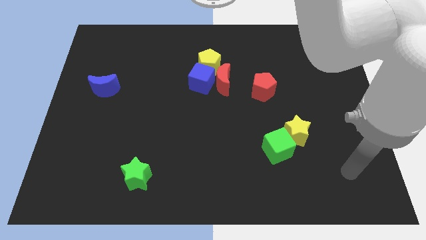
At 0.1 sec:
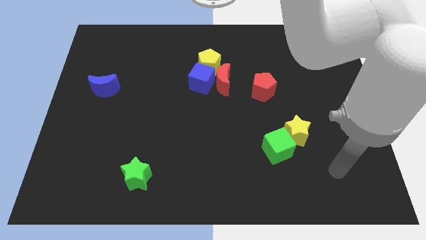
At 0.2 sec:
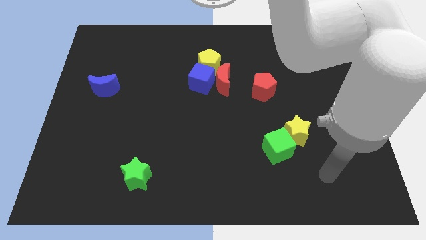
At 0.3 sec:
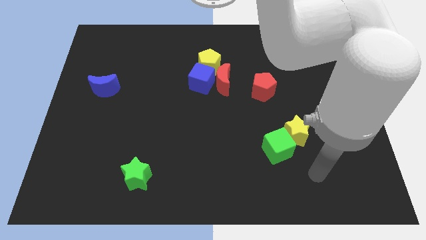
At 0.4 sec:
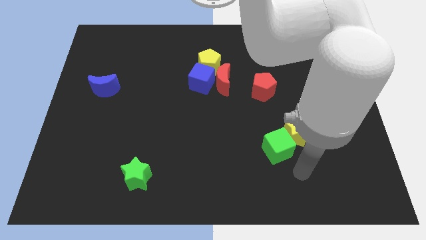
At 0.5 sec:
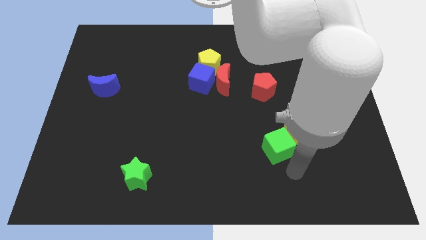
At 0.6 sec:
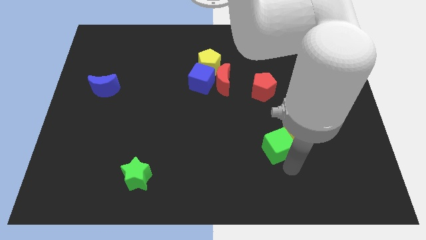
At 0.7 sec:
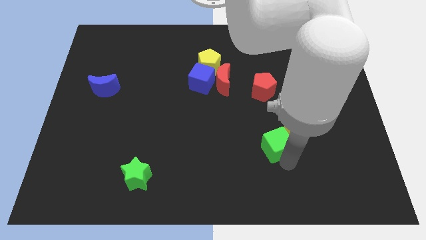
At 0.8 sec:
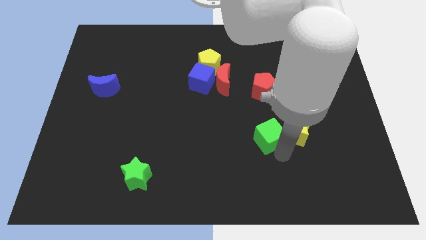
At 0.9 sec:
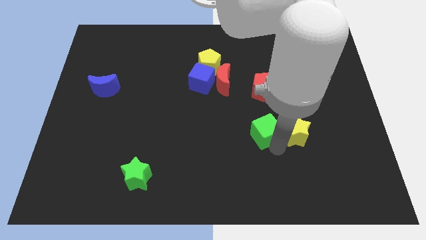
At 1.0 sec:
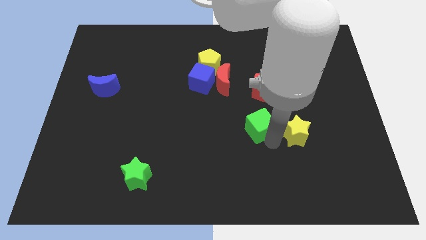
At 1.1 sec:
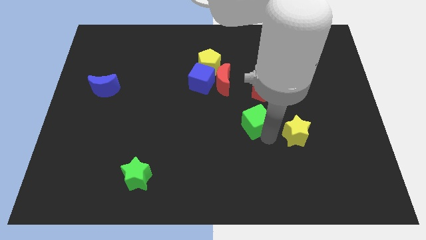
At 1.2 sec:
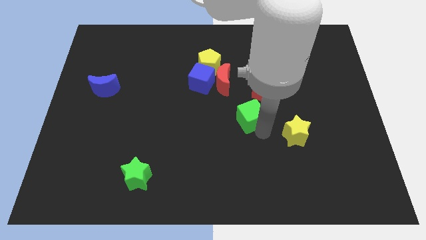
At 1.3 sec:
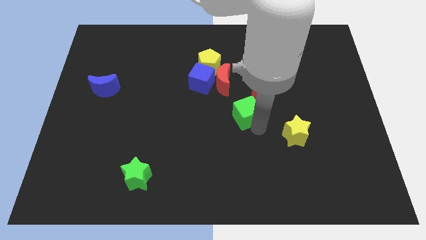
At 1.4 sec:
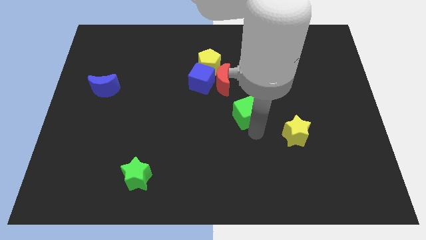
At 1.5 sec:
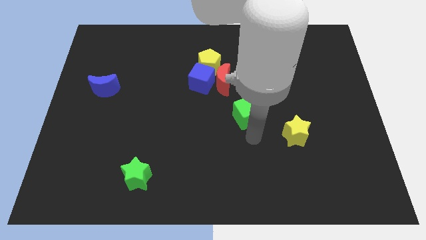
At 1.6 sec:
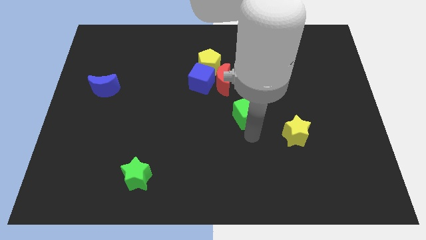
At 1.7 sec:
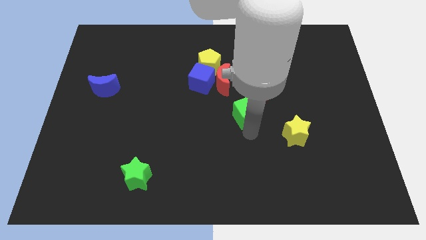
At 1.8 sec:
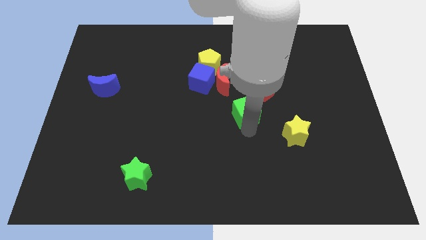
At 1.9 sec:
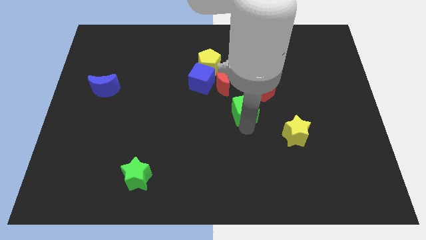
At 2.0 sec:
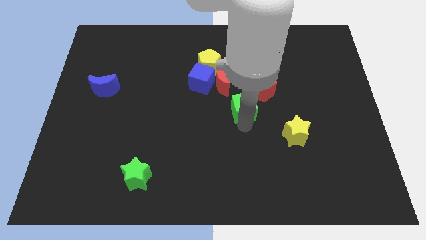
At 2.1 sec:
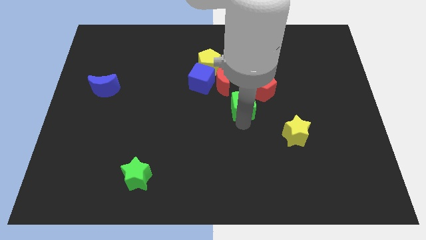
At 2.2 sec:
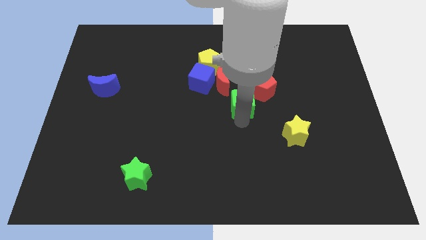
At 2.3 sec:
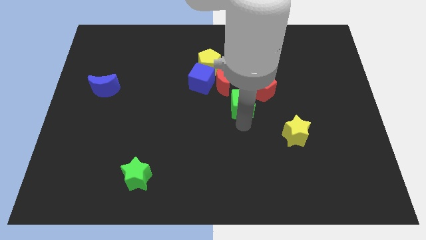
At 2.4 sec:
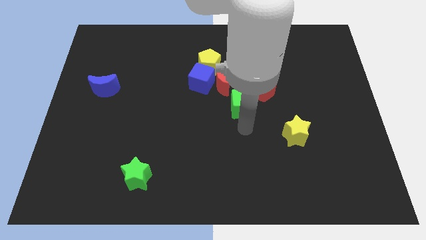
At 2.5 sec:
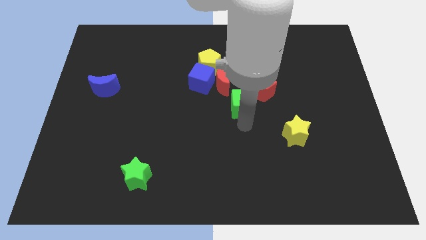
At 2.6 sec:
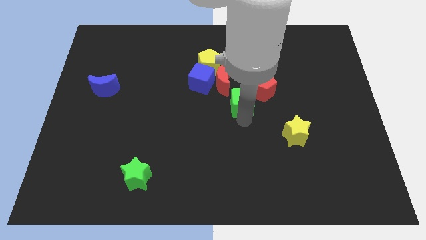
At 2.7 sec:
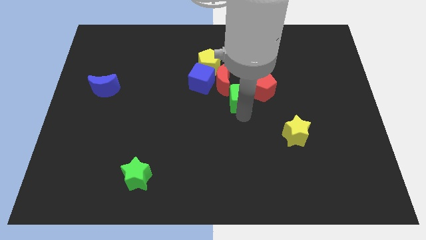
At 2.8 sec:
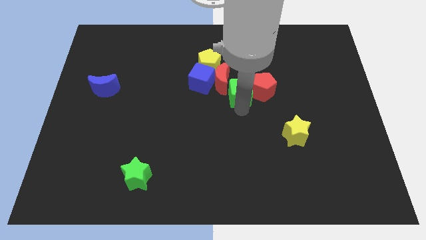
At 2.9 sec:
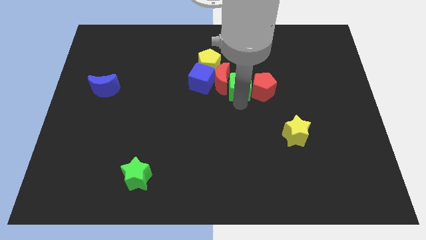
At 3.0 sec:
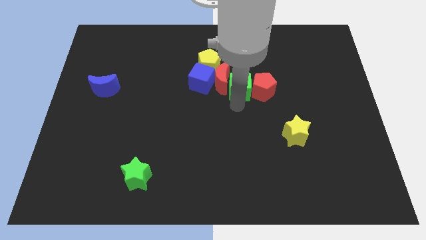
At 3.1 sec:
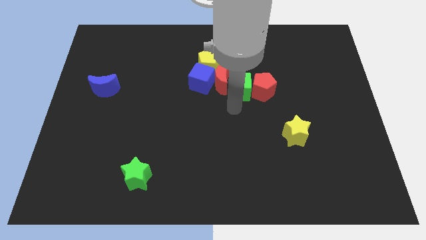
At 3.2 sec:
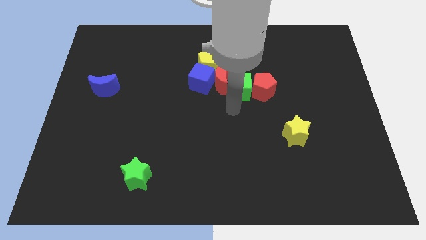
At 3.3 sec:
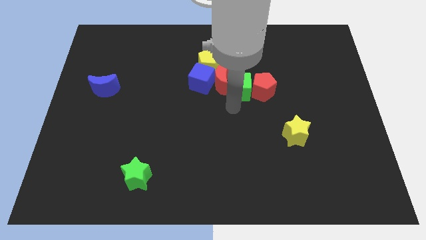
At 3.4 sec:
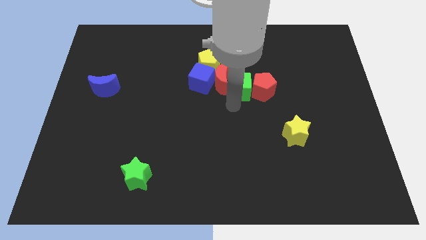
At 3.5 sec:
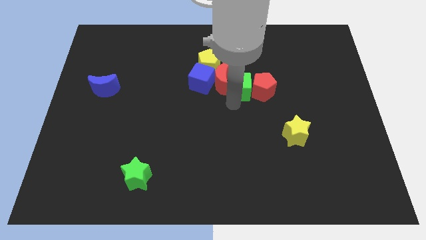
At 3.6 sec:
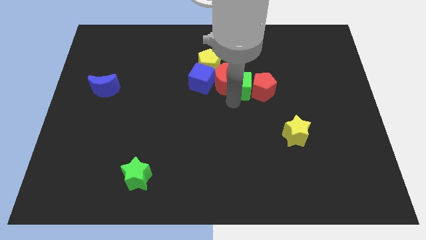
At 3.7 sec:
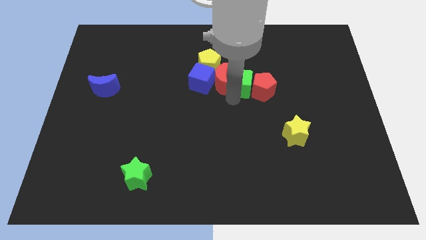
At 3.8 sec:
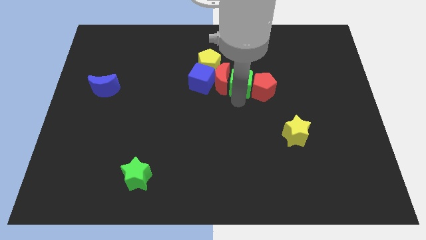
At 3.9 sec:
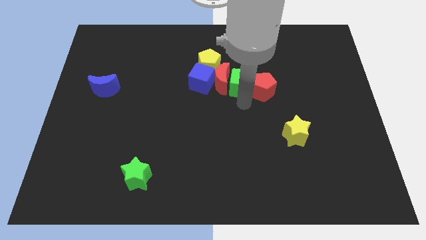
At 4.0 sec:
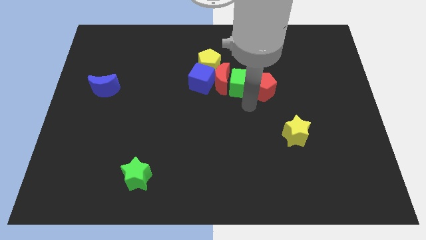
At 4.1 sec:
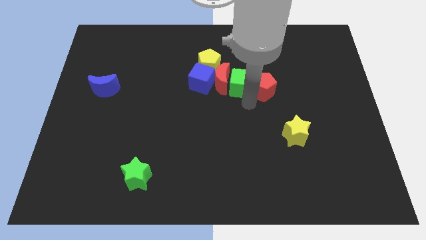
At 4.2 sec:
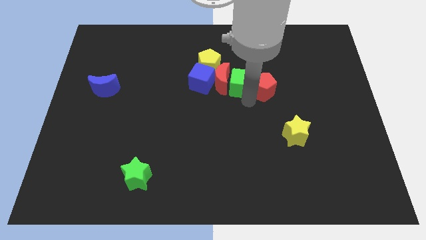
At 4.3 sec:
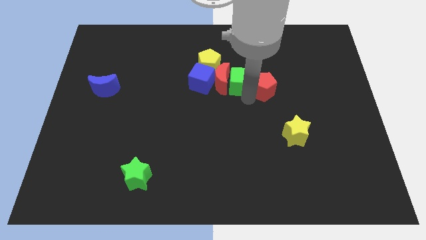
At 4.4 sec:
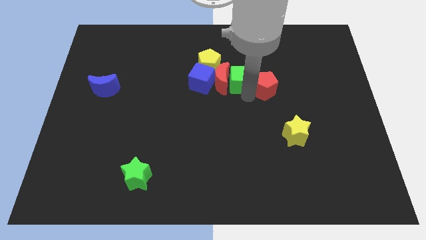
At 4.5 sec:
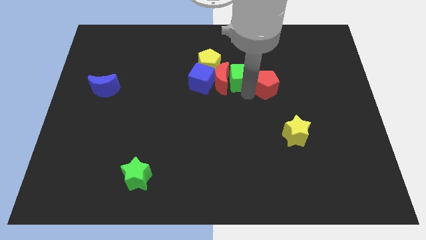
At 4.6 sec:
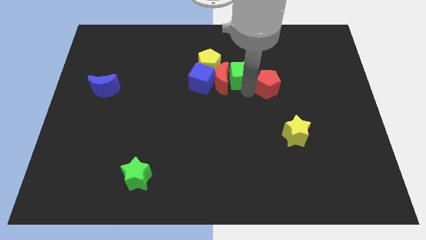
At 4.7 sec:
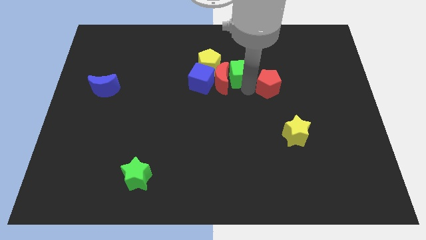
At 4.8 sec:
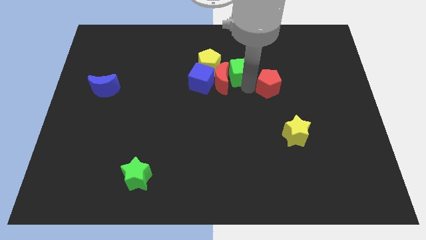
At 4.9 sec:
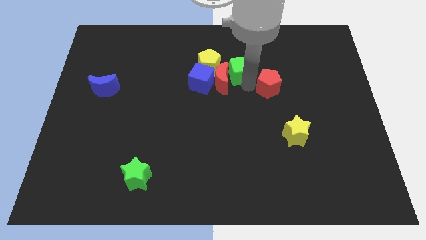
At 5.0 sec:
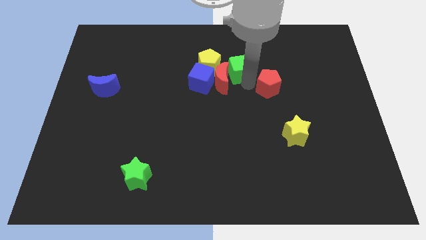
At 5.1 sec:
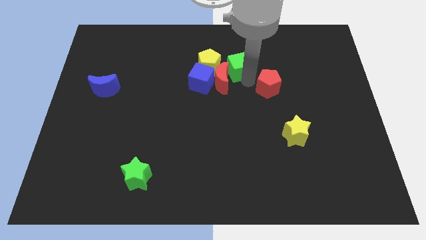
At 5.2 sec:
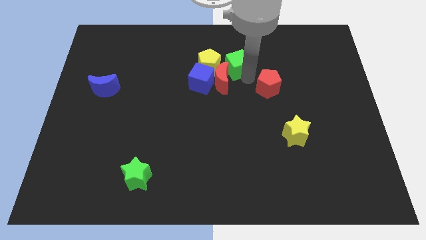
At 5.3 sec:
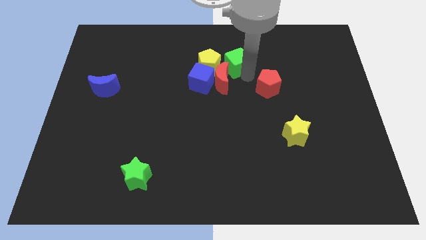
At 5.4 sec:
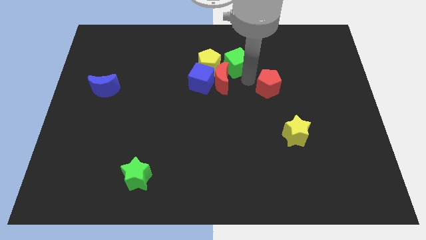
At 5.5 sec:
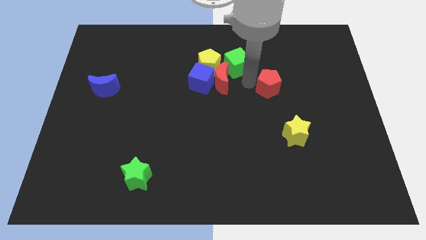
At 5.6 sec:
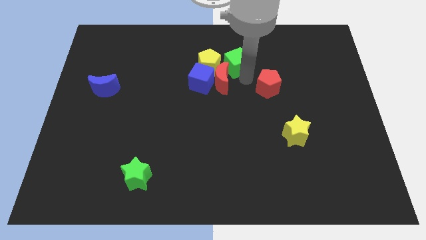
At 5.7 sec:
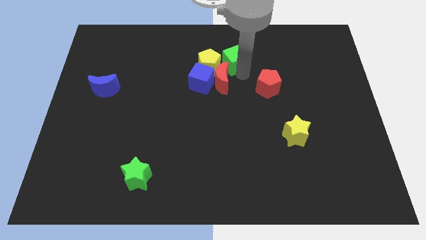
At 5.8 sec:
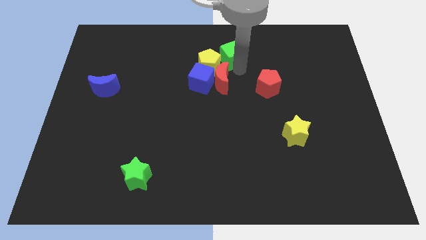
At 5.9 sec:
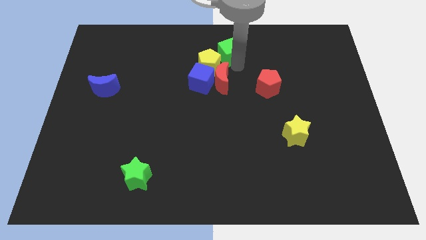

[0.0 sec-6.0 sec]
slide the green cube to the top side

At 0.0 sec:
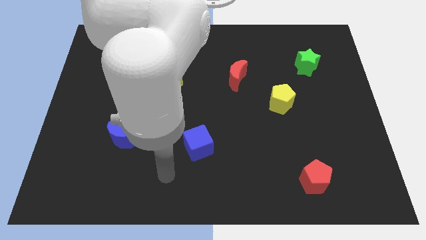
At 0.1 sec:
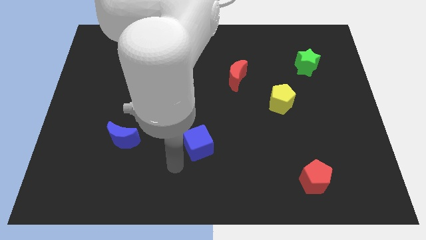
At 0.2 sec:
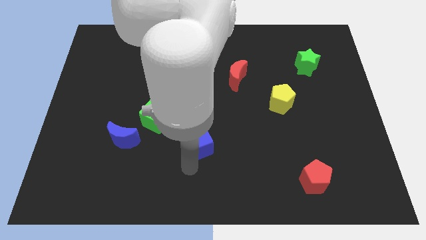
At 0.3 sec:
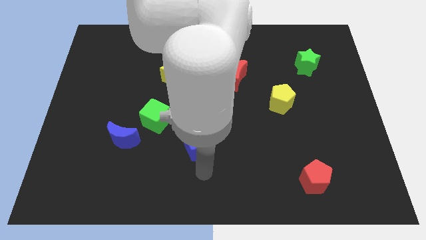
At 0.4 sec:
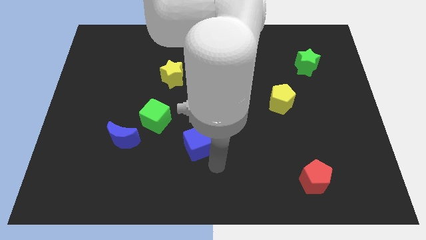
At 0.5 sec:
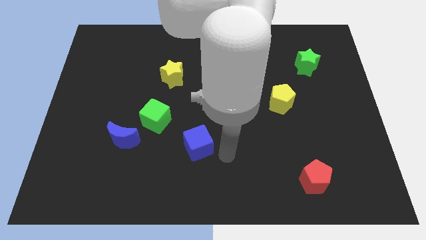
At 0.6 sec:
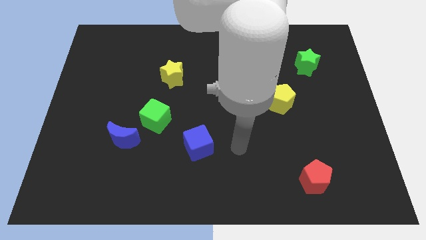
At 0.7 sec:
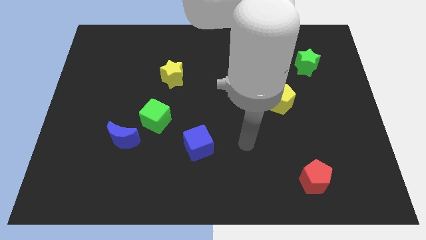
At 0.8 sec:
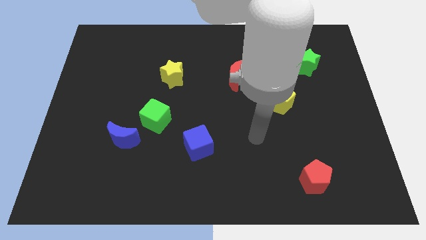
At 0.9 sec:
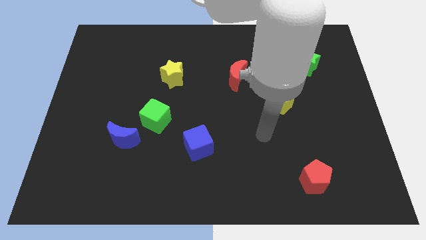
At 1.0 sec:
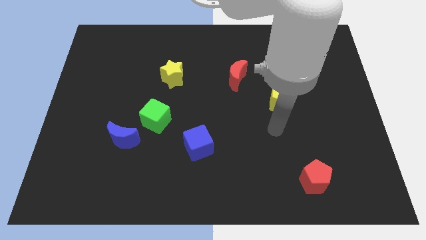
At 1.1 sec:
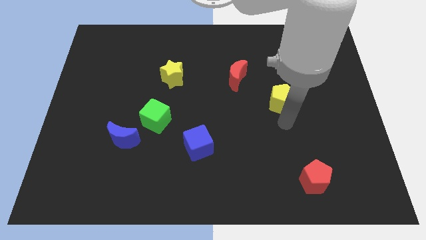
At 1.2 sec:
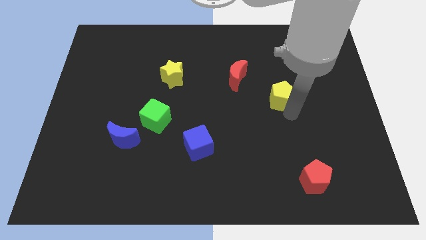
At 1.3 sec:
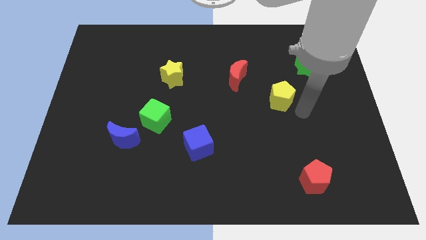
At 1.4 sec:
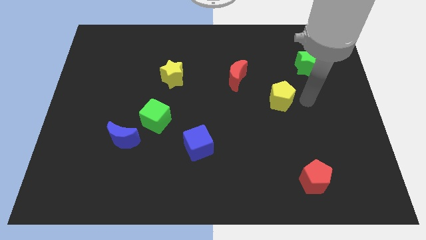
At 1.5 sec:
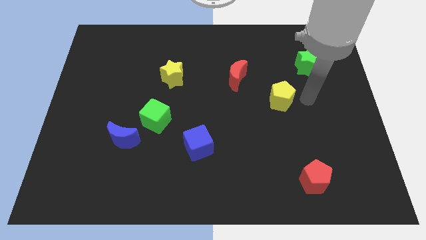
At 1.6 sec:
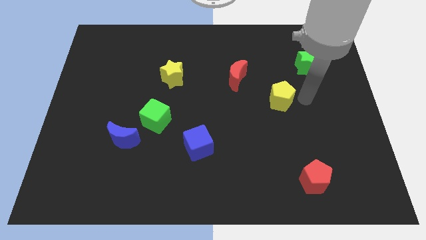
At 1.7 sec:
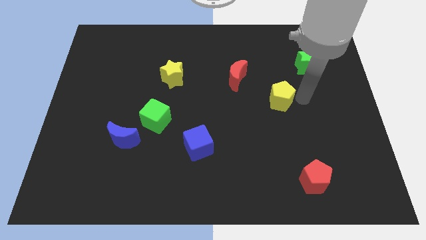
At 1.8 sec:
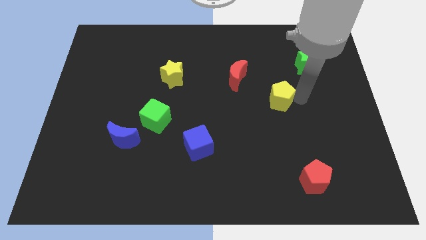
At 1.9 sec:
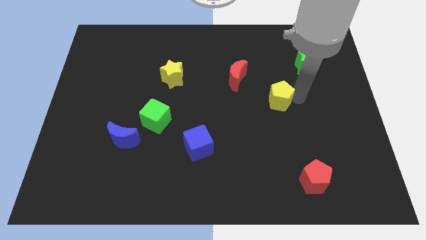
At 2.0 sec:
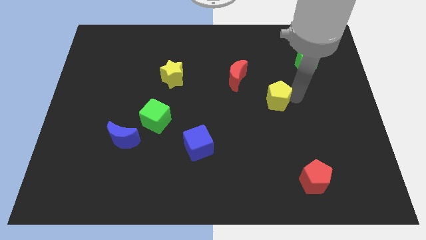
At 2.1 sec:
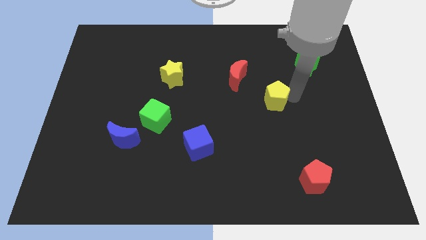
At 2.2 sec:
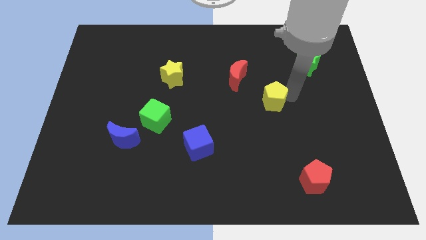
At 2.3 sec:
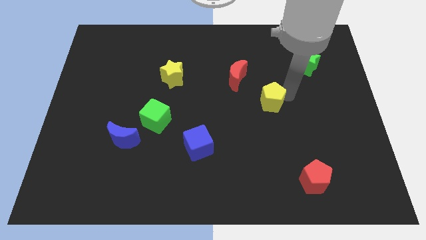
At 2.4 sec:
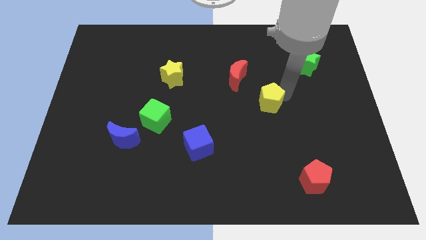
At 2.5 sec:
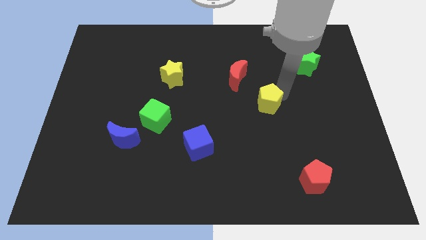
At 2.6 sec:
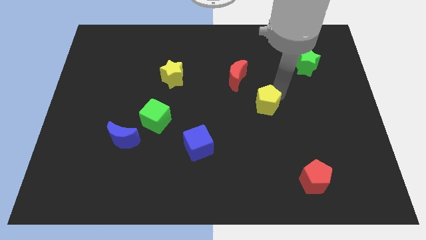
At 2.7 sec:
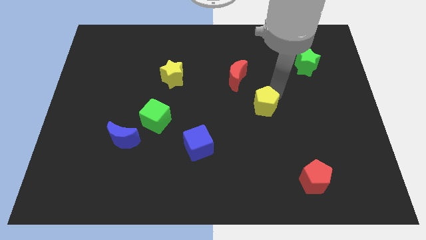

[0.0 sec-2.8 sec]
move the yellow pentagon to the middle
